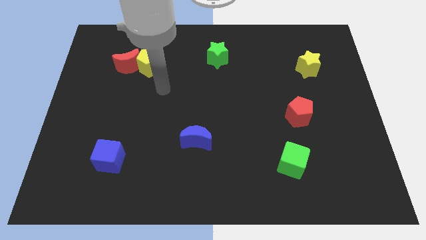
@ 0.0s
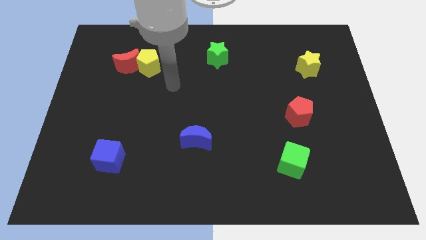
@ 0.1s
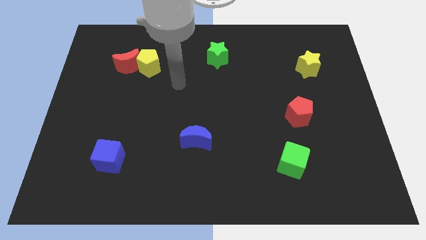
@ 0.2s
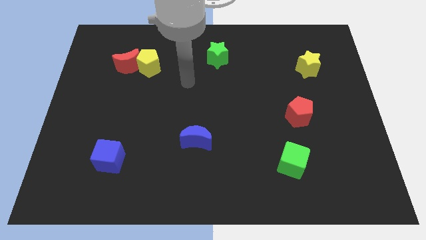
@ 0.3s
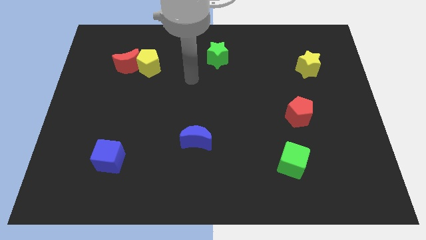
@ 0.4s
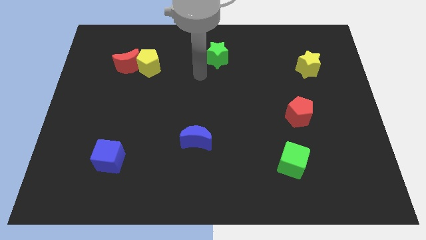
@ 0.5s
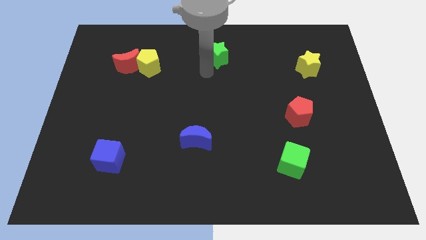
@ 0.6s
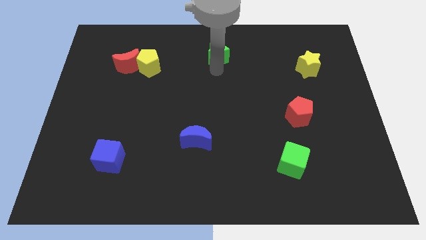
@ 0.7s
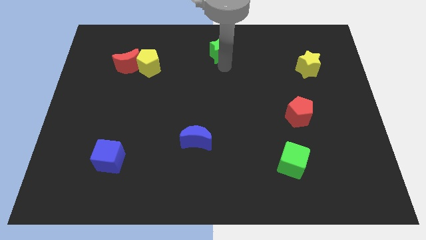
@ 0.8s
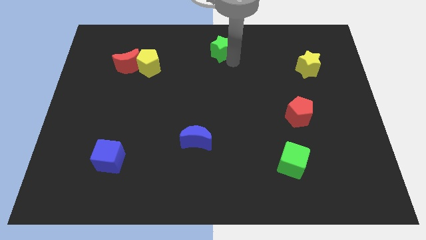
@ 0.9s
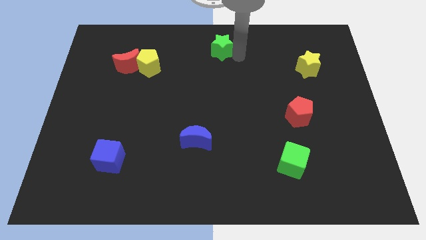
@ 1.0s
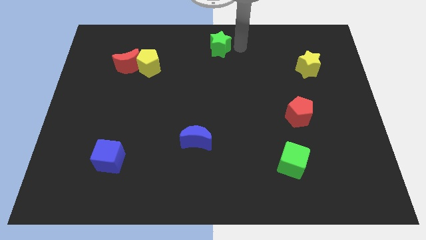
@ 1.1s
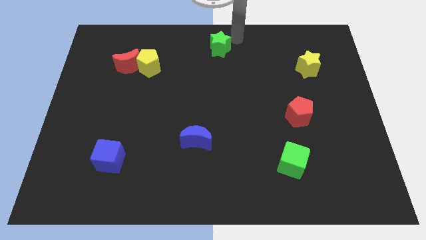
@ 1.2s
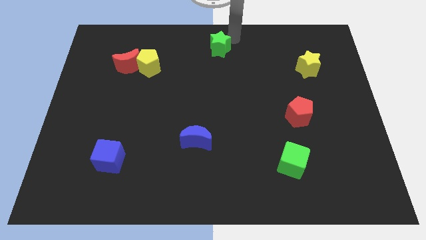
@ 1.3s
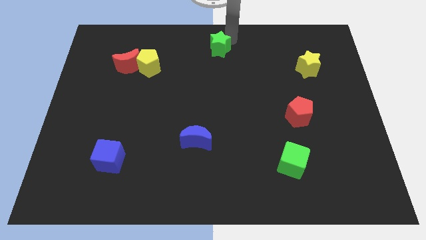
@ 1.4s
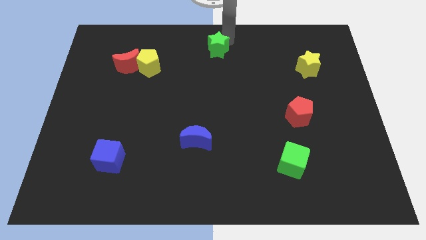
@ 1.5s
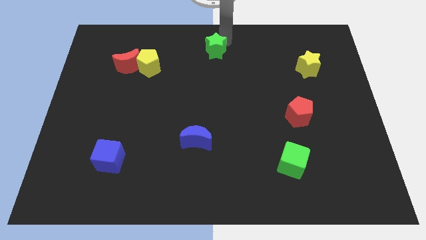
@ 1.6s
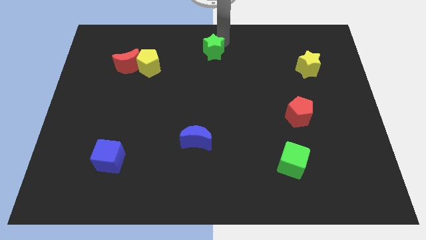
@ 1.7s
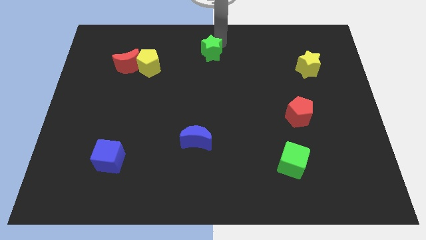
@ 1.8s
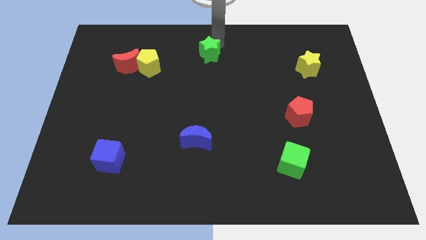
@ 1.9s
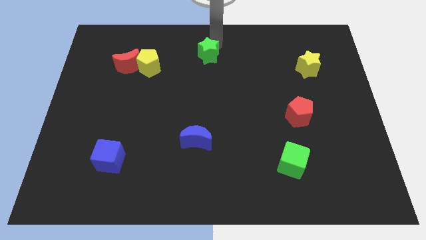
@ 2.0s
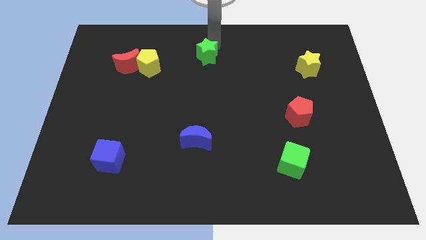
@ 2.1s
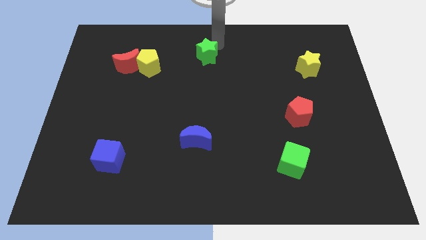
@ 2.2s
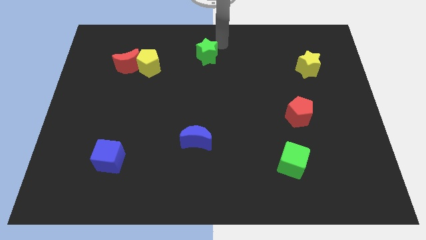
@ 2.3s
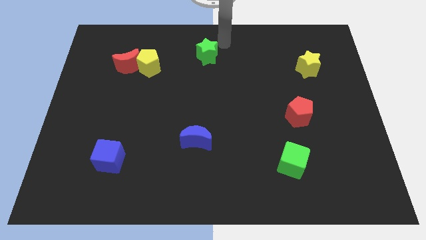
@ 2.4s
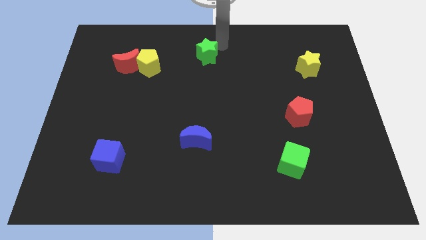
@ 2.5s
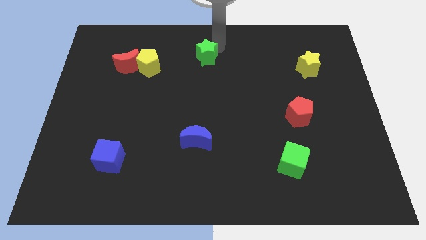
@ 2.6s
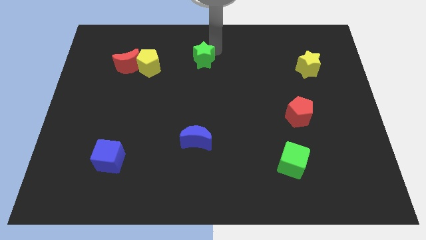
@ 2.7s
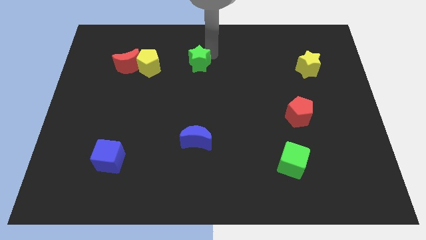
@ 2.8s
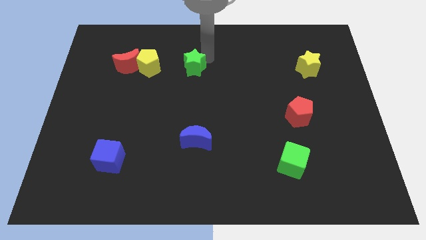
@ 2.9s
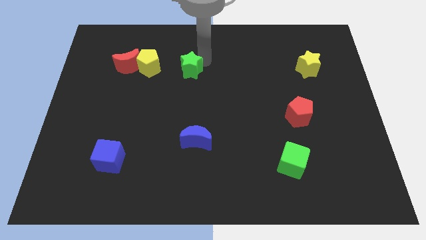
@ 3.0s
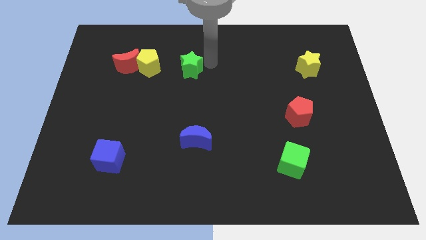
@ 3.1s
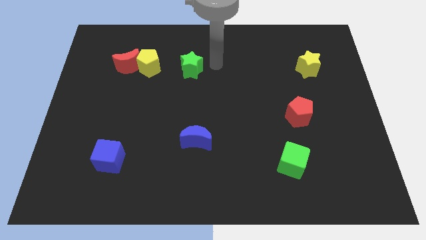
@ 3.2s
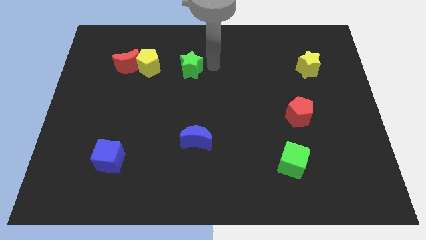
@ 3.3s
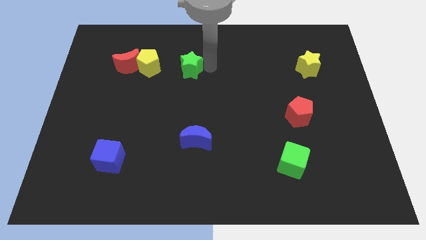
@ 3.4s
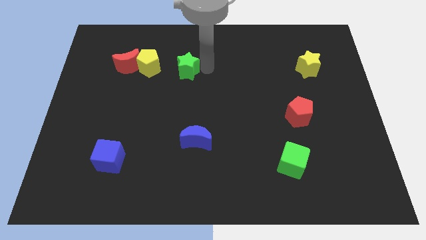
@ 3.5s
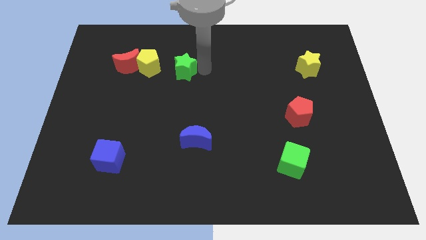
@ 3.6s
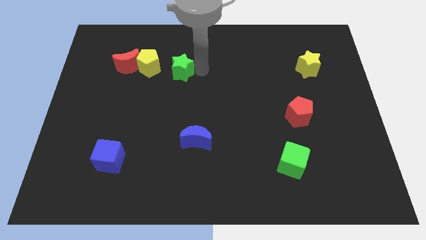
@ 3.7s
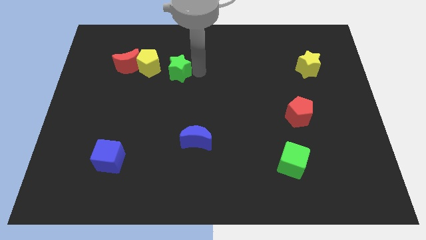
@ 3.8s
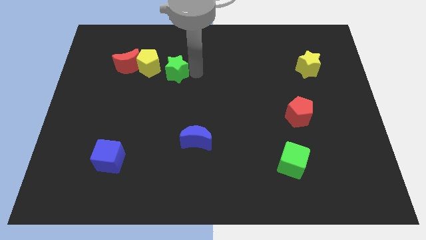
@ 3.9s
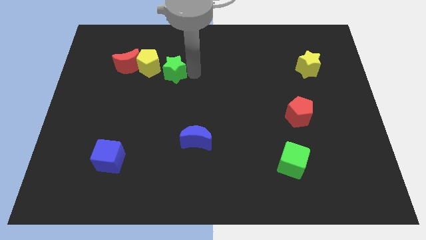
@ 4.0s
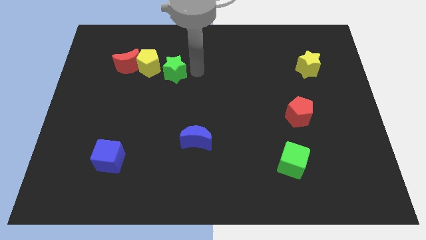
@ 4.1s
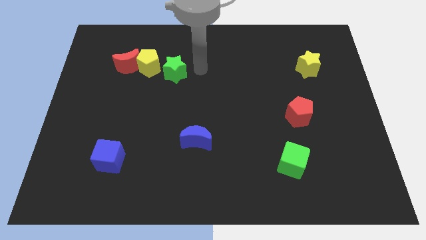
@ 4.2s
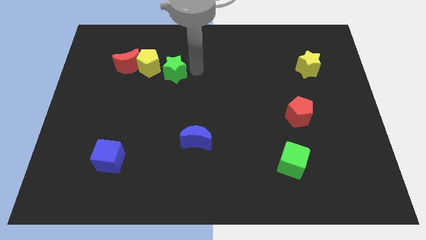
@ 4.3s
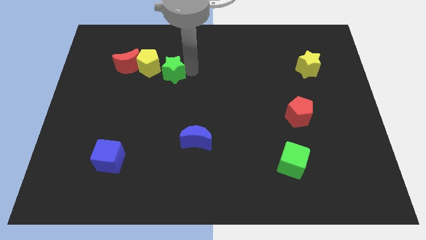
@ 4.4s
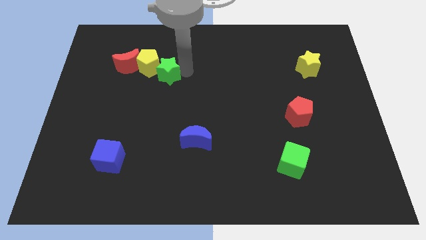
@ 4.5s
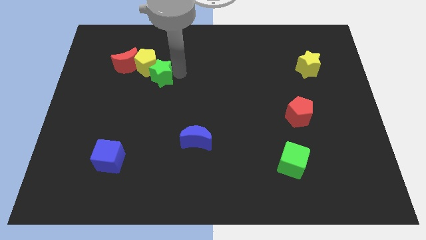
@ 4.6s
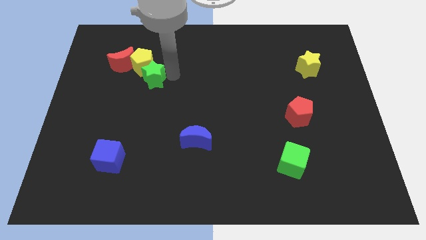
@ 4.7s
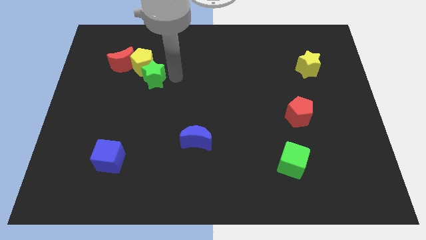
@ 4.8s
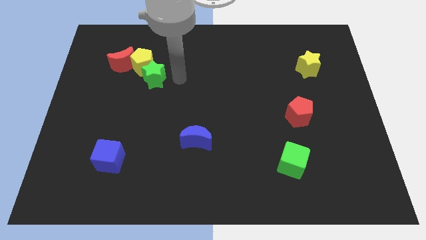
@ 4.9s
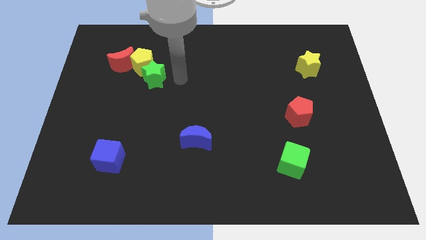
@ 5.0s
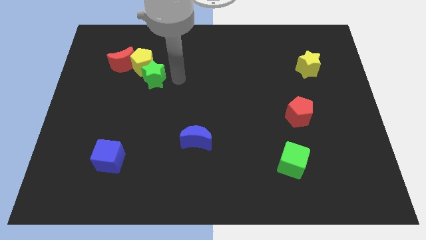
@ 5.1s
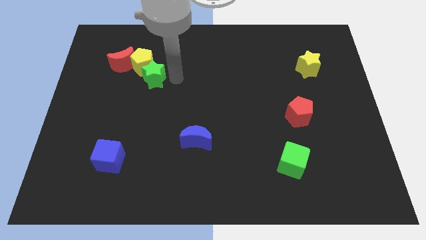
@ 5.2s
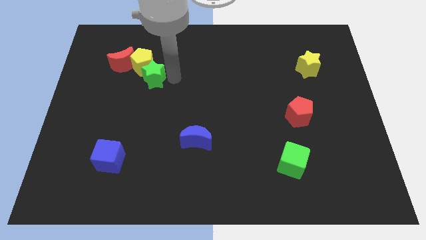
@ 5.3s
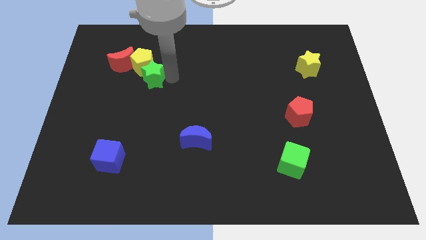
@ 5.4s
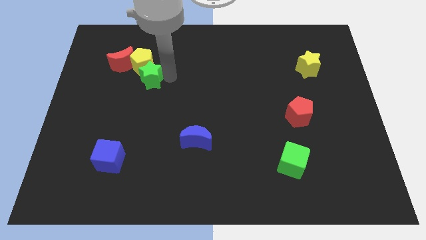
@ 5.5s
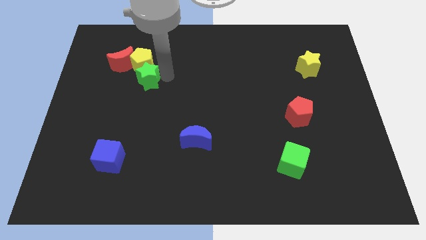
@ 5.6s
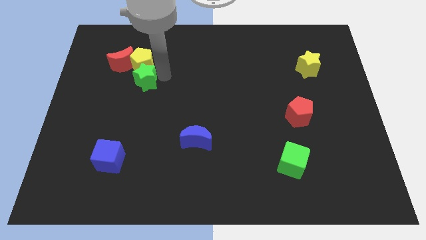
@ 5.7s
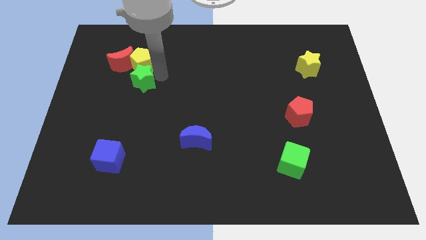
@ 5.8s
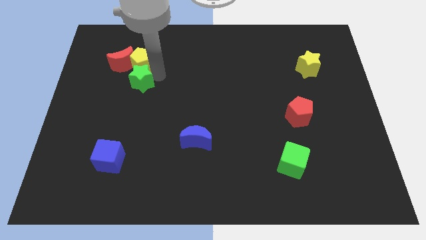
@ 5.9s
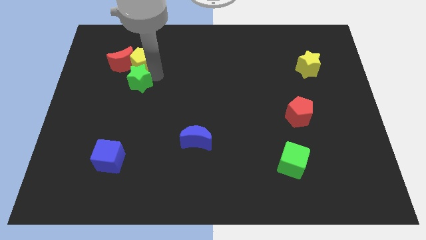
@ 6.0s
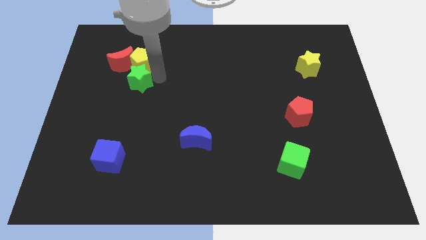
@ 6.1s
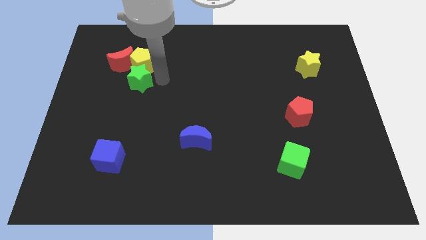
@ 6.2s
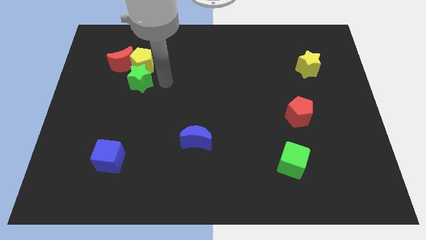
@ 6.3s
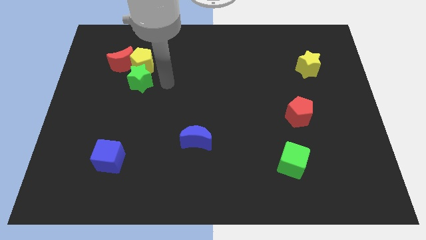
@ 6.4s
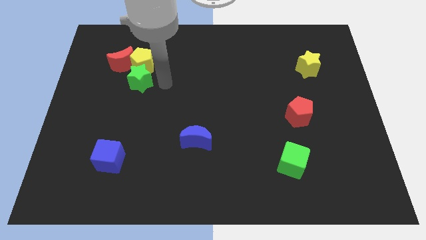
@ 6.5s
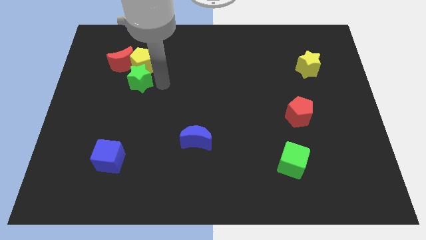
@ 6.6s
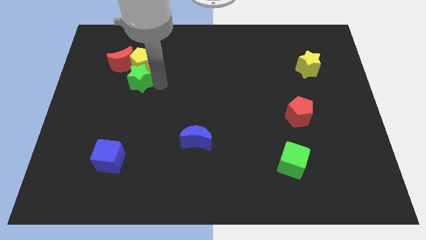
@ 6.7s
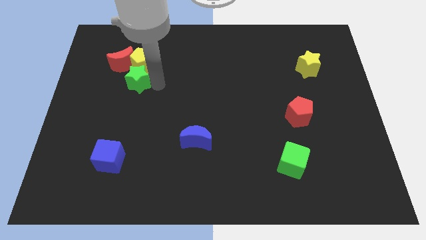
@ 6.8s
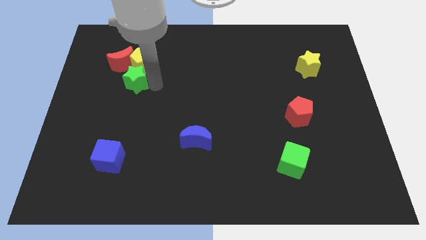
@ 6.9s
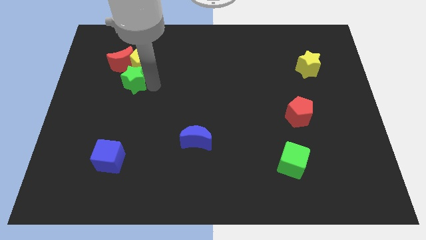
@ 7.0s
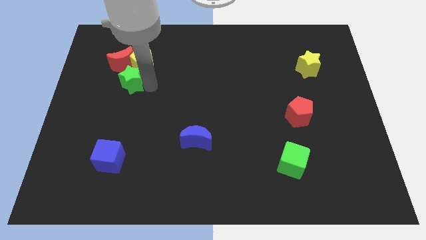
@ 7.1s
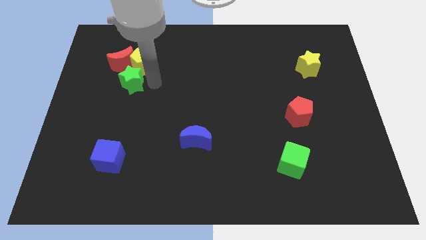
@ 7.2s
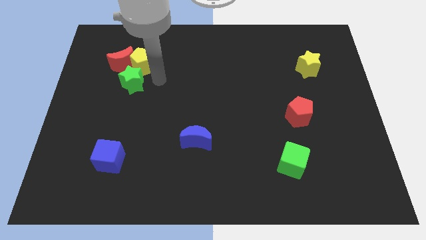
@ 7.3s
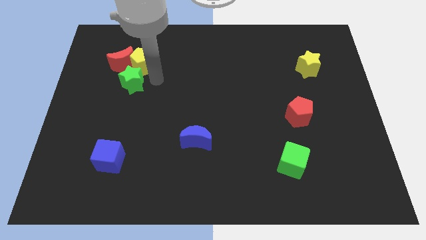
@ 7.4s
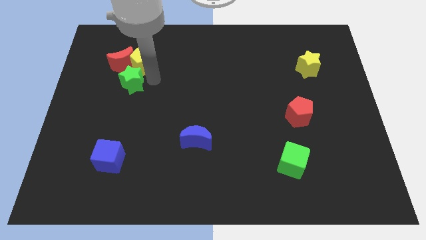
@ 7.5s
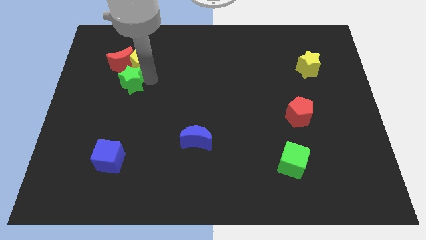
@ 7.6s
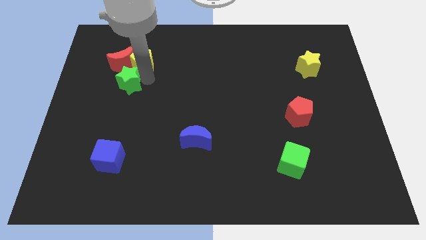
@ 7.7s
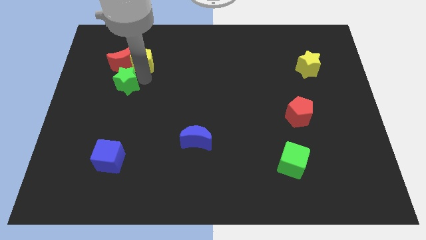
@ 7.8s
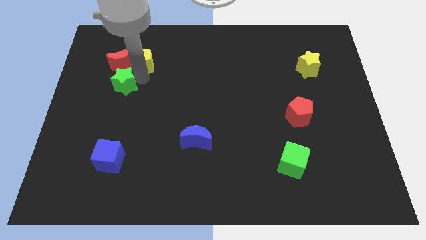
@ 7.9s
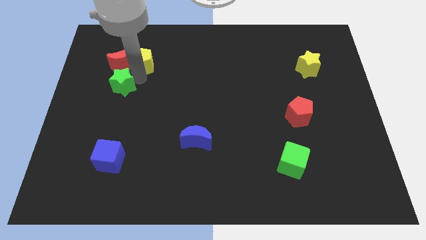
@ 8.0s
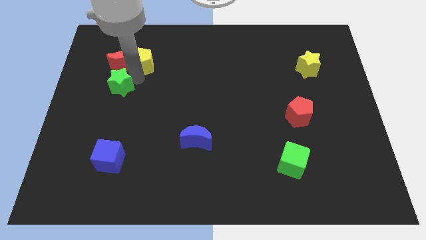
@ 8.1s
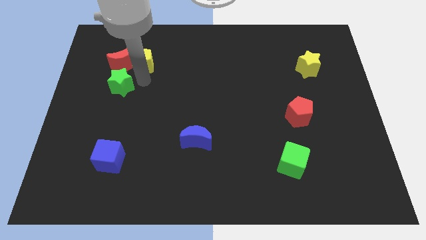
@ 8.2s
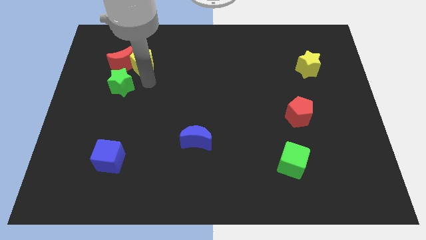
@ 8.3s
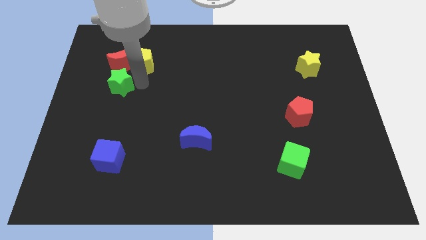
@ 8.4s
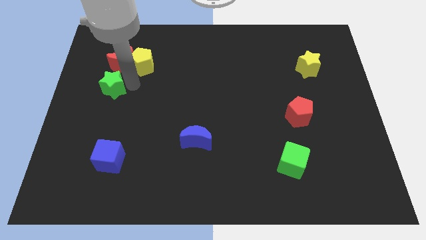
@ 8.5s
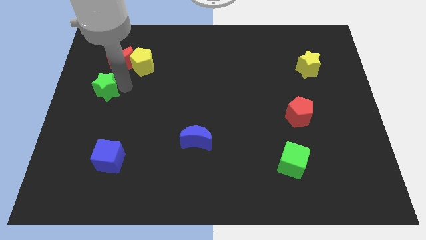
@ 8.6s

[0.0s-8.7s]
move the green star to the left side
